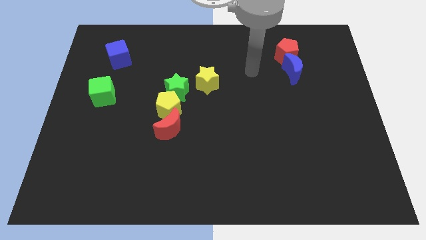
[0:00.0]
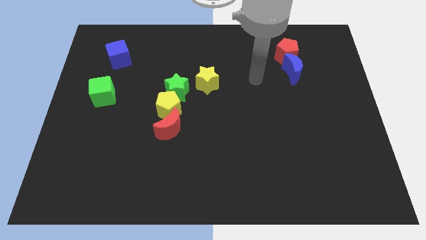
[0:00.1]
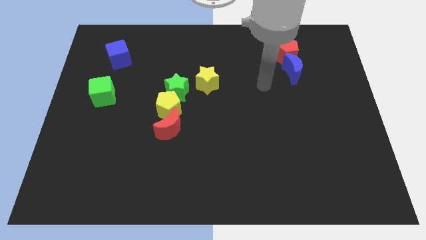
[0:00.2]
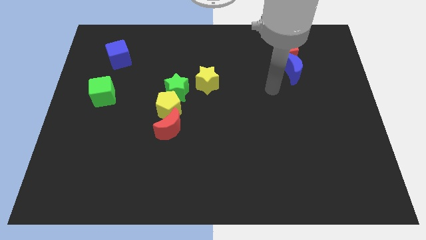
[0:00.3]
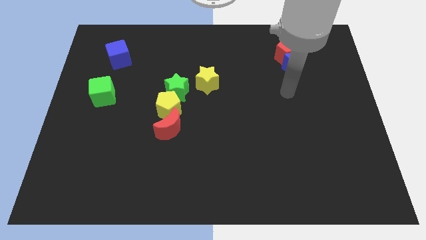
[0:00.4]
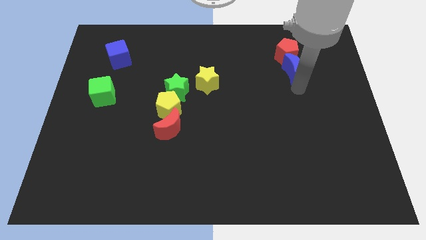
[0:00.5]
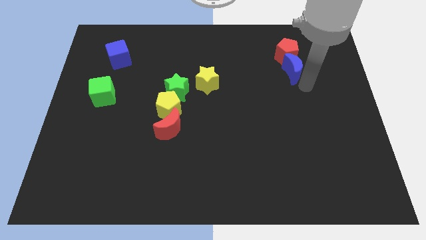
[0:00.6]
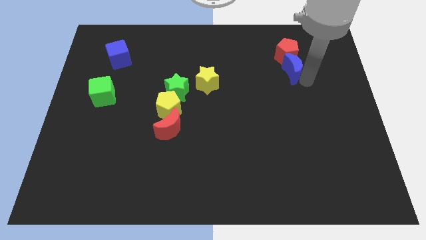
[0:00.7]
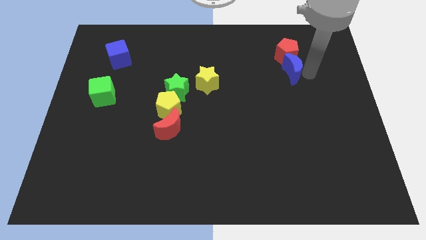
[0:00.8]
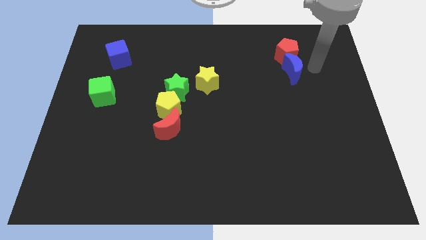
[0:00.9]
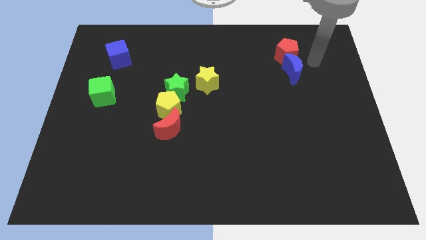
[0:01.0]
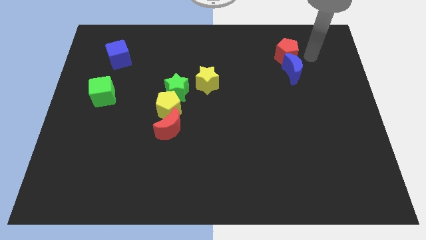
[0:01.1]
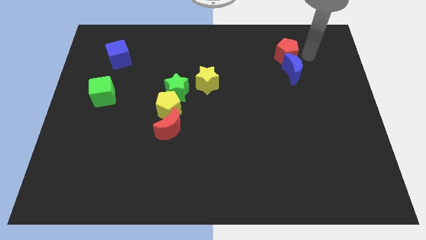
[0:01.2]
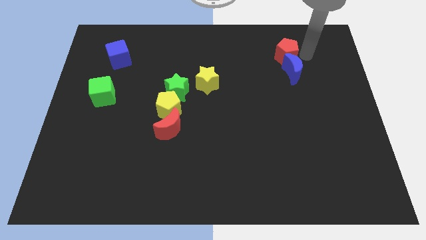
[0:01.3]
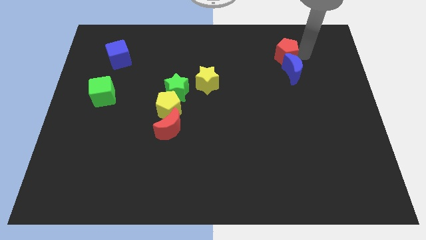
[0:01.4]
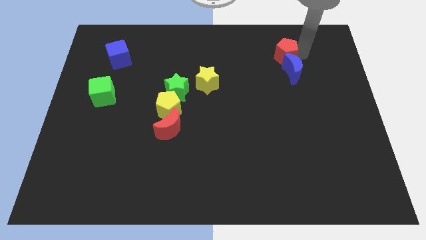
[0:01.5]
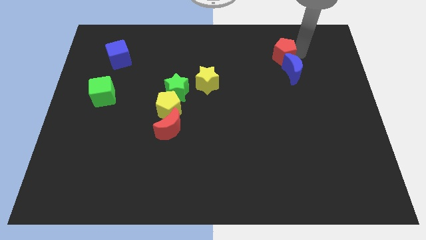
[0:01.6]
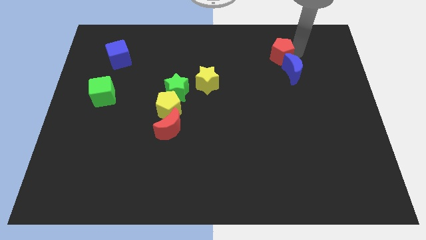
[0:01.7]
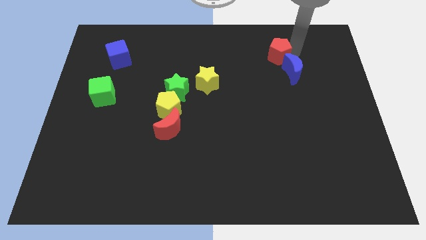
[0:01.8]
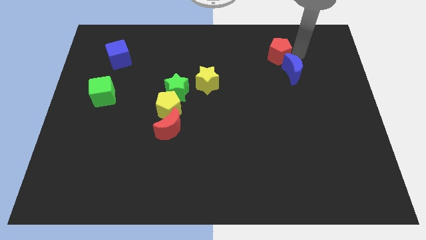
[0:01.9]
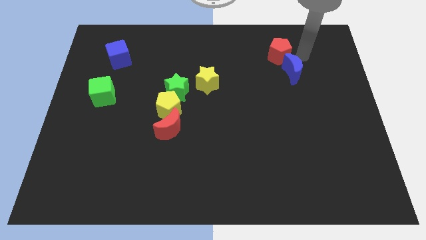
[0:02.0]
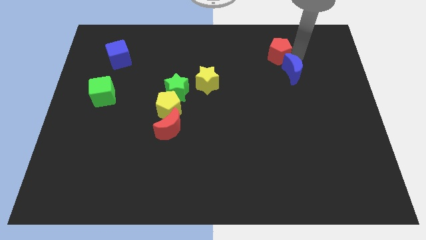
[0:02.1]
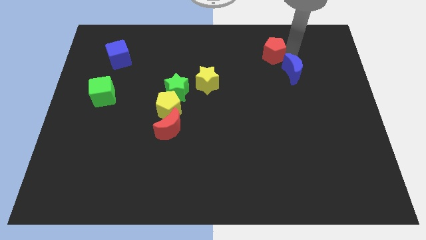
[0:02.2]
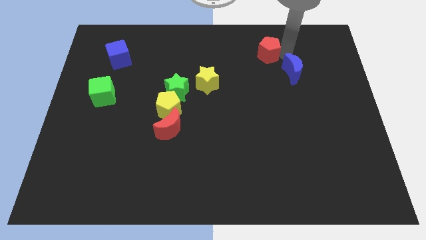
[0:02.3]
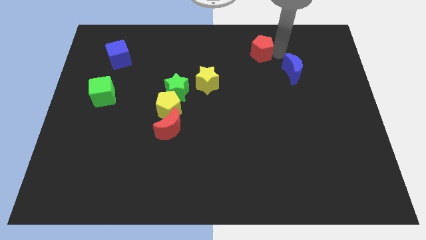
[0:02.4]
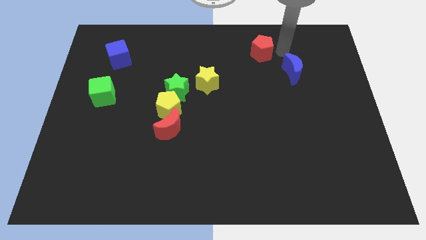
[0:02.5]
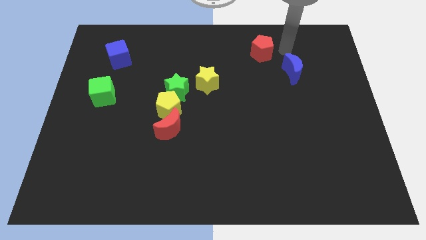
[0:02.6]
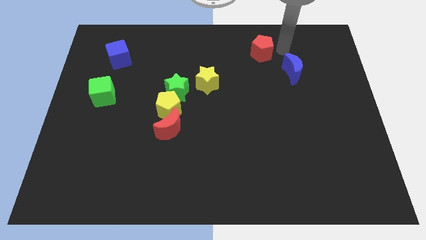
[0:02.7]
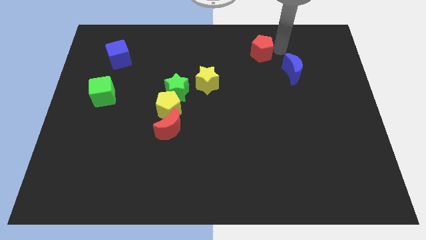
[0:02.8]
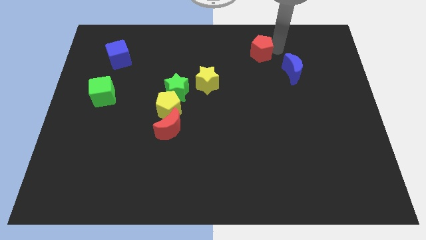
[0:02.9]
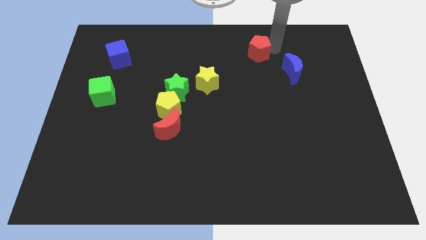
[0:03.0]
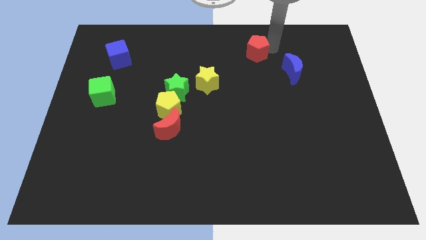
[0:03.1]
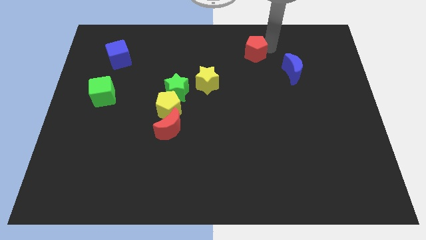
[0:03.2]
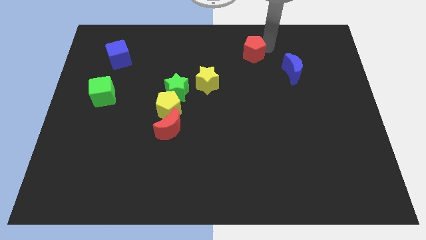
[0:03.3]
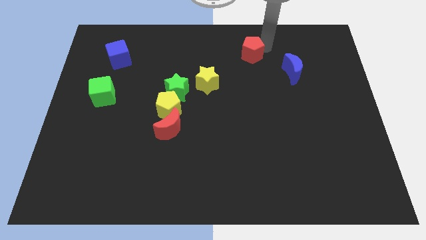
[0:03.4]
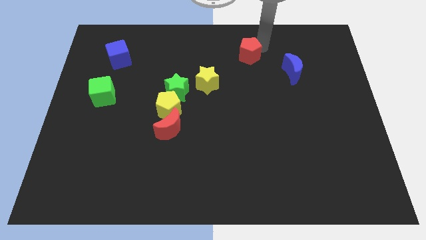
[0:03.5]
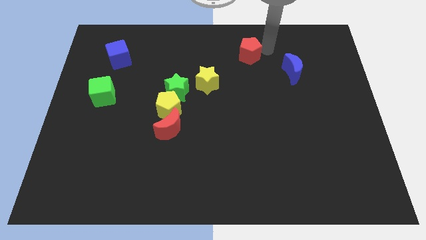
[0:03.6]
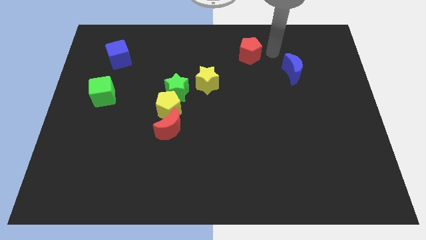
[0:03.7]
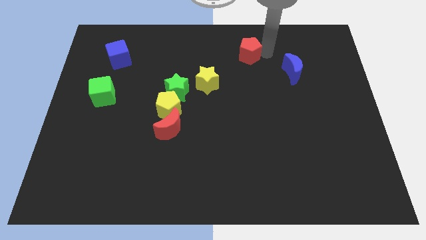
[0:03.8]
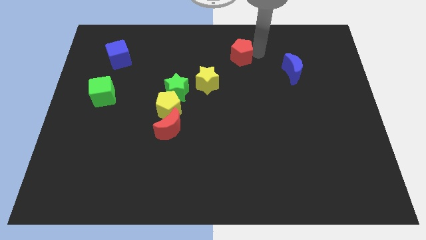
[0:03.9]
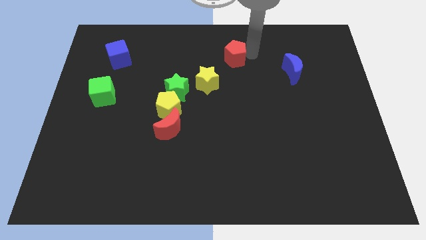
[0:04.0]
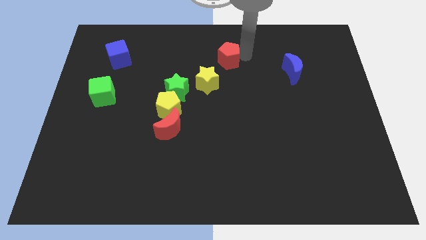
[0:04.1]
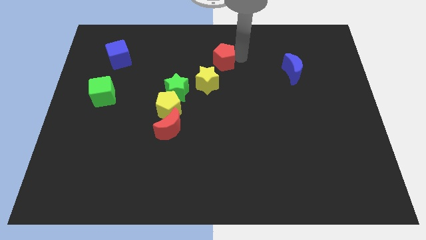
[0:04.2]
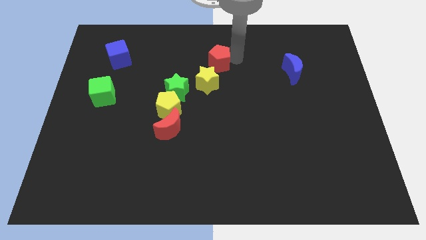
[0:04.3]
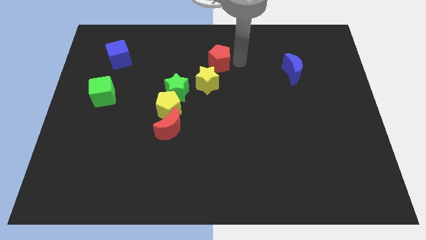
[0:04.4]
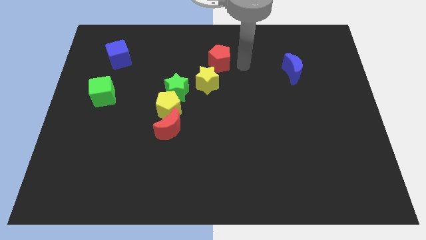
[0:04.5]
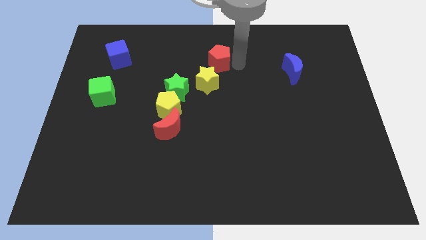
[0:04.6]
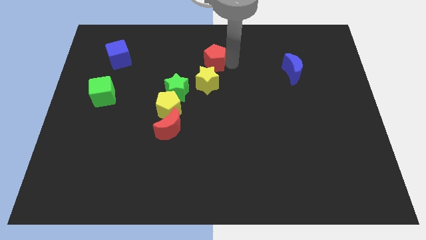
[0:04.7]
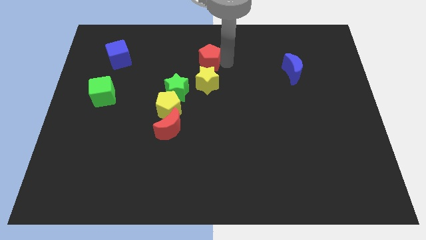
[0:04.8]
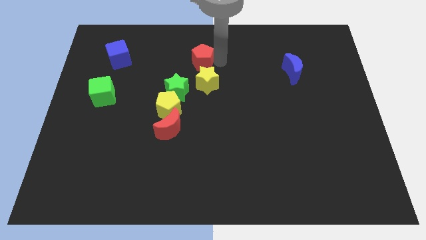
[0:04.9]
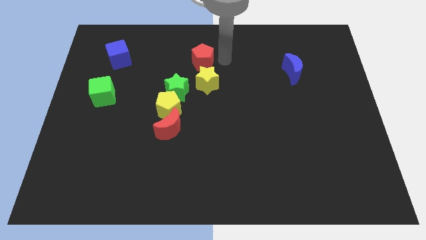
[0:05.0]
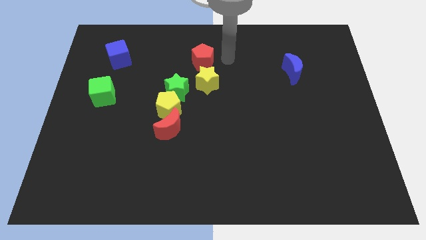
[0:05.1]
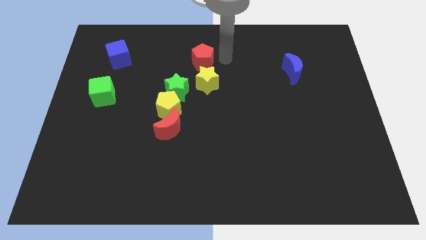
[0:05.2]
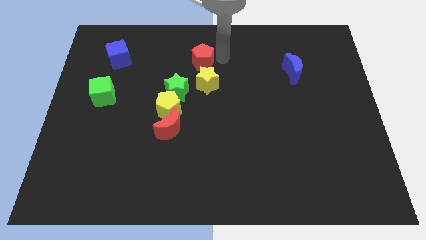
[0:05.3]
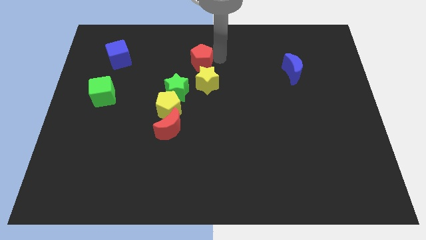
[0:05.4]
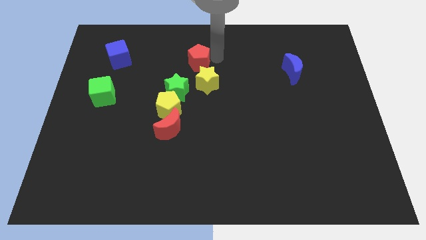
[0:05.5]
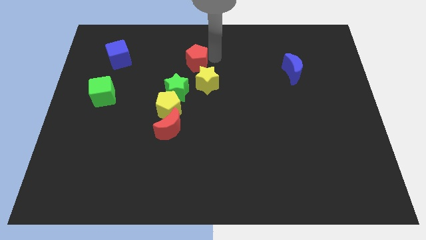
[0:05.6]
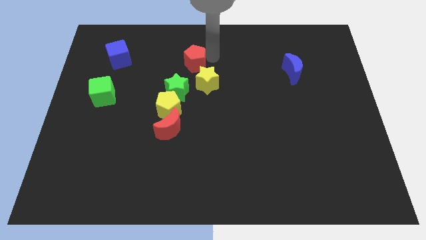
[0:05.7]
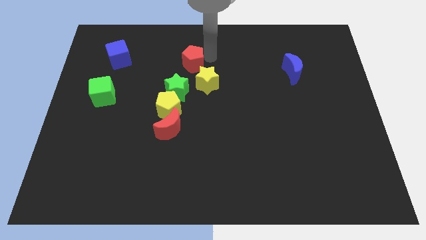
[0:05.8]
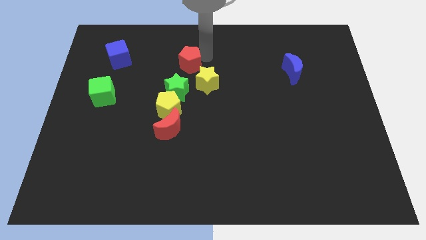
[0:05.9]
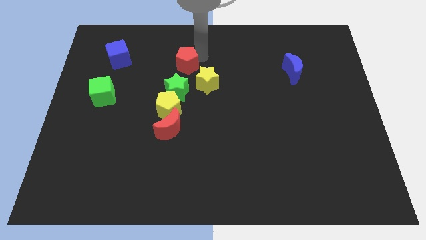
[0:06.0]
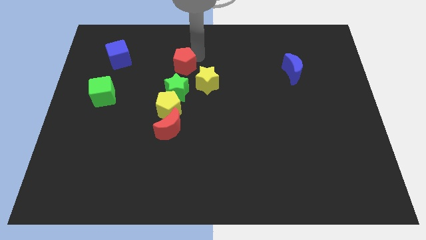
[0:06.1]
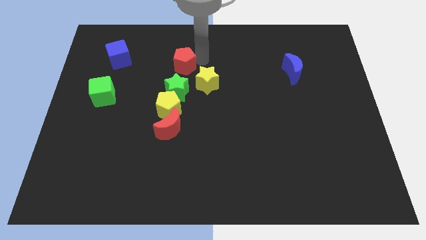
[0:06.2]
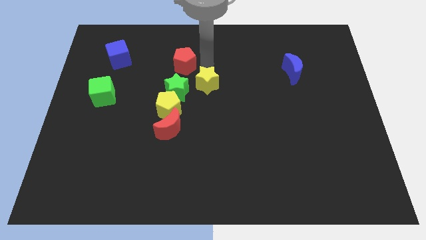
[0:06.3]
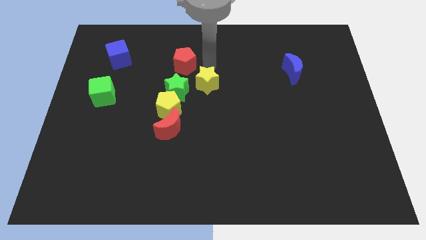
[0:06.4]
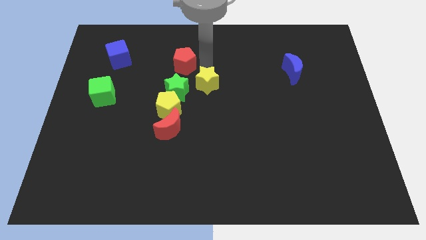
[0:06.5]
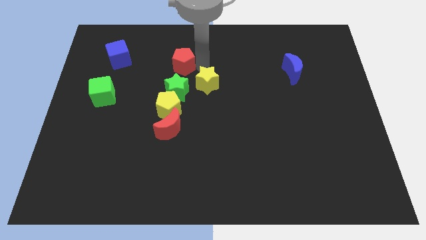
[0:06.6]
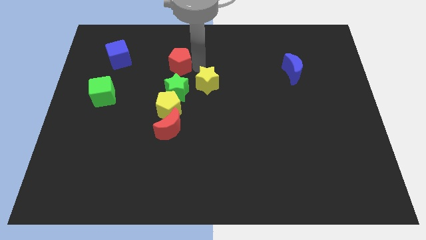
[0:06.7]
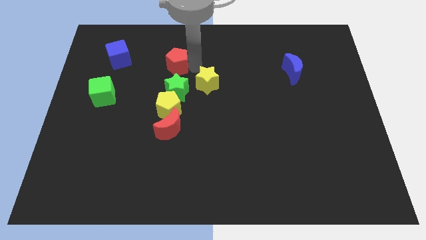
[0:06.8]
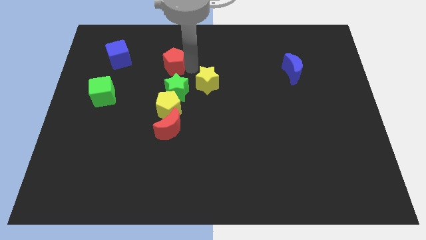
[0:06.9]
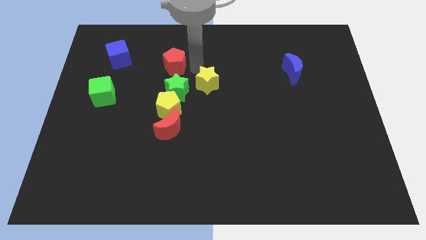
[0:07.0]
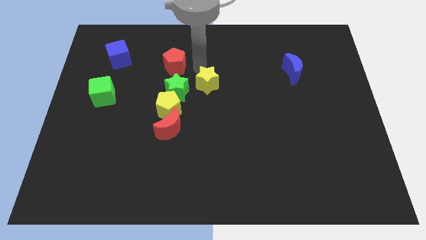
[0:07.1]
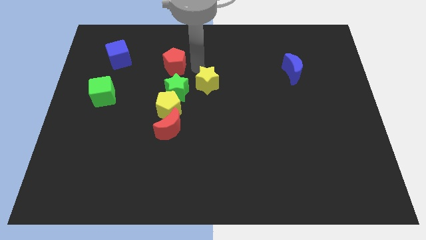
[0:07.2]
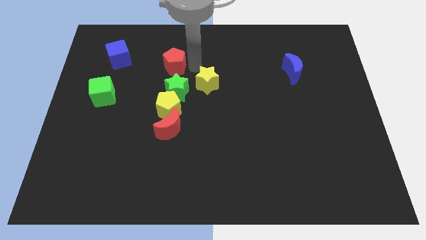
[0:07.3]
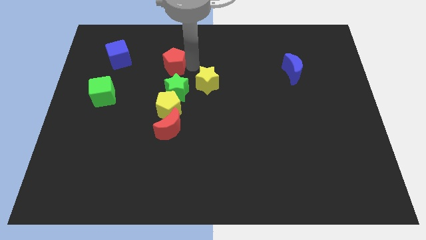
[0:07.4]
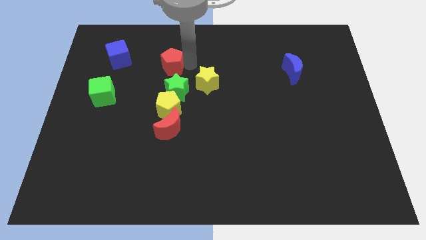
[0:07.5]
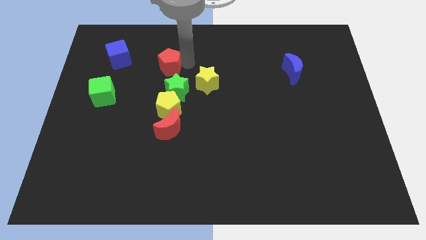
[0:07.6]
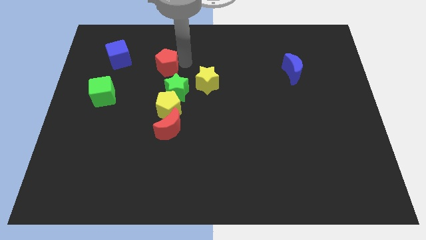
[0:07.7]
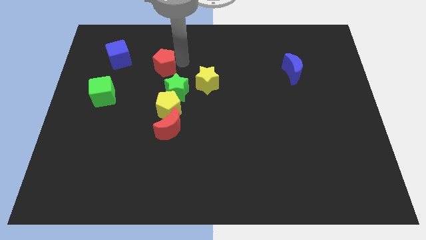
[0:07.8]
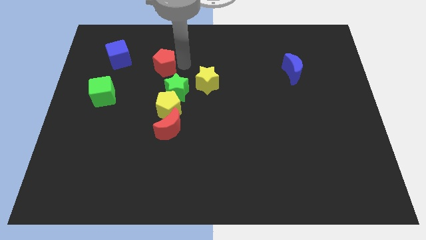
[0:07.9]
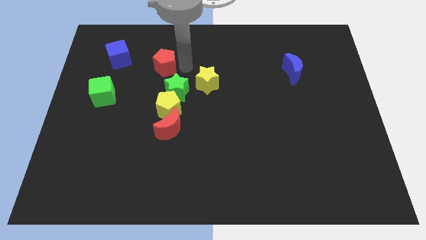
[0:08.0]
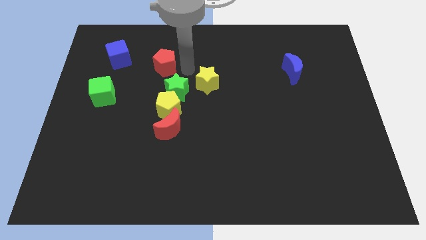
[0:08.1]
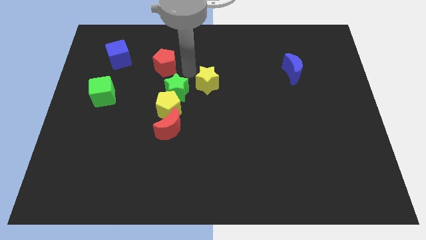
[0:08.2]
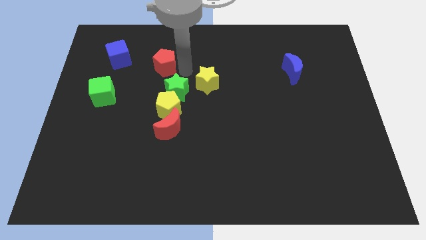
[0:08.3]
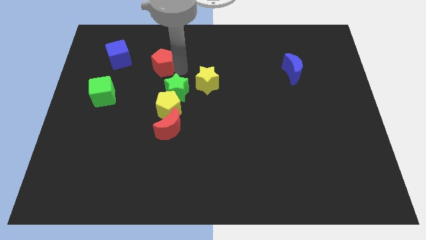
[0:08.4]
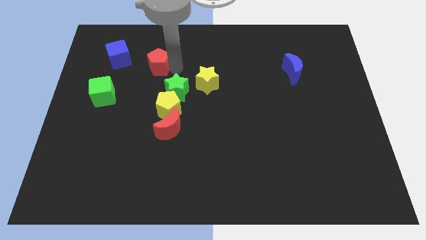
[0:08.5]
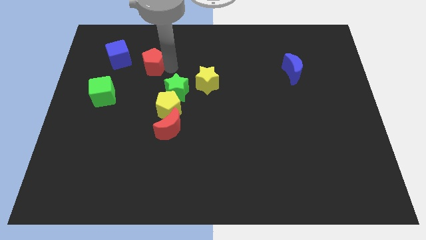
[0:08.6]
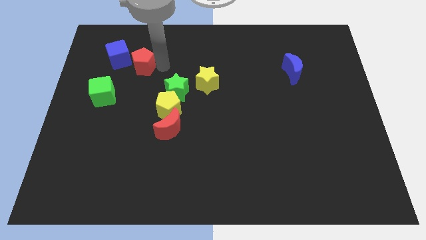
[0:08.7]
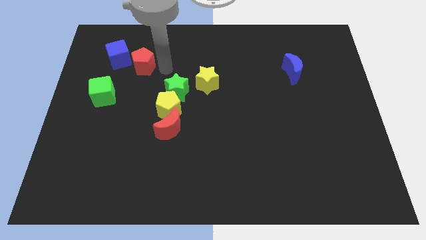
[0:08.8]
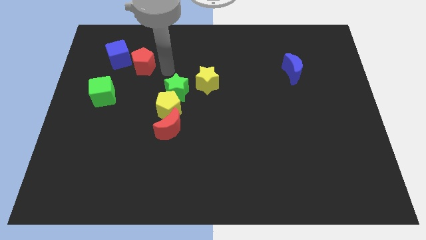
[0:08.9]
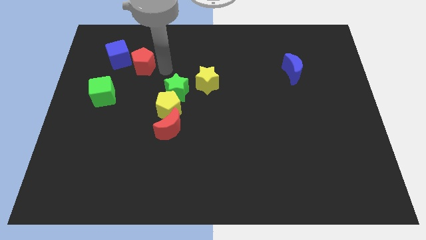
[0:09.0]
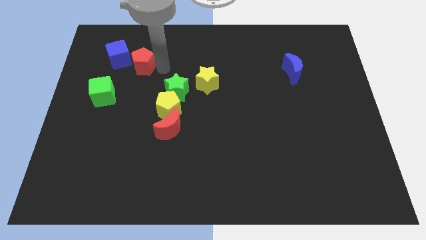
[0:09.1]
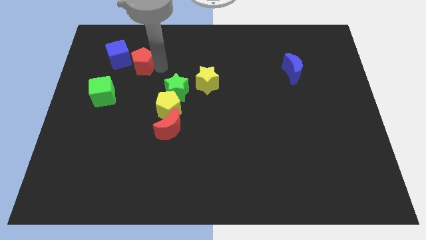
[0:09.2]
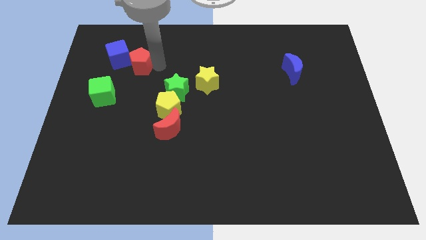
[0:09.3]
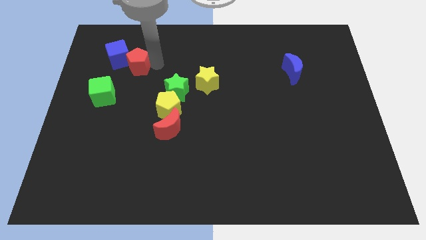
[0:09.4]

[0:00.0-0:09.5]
push the red pentagon close to the blue cube
